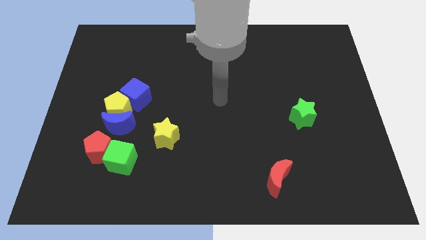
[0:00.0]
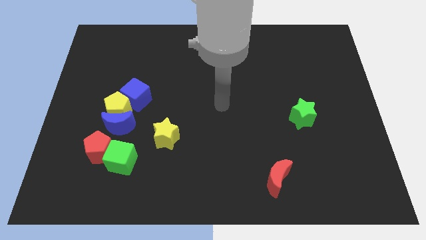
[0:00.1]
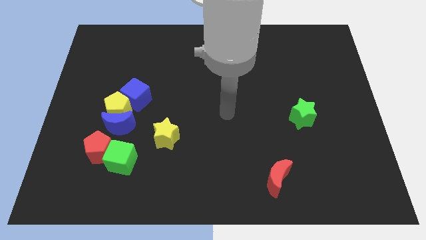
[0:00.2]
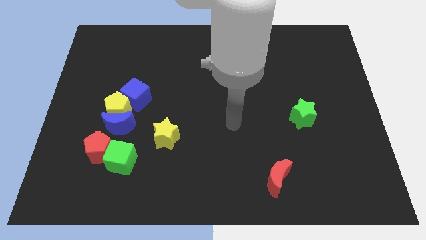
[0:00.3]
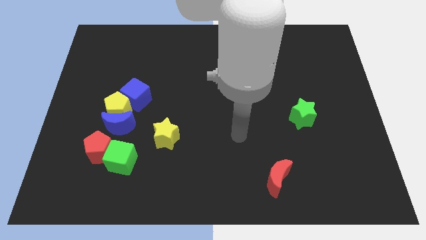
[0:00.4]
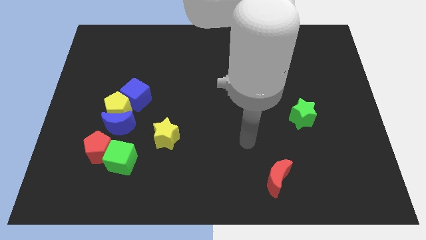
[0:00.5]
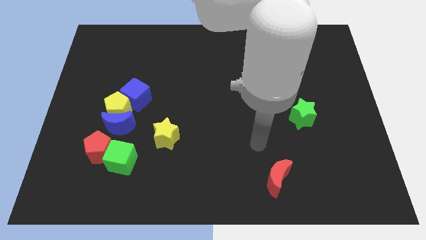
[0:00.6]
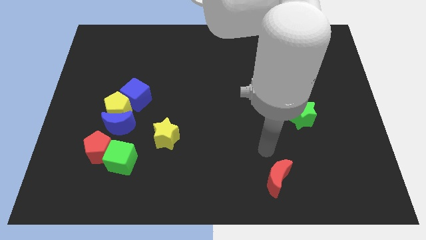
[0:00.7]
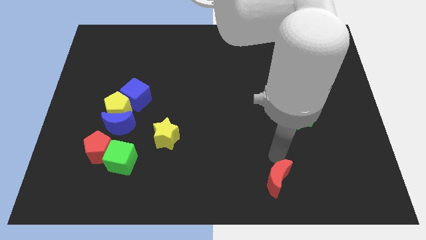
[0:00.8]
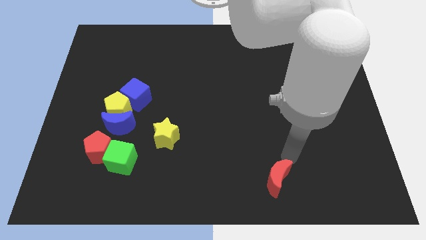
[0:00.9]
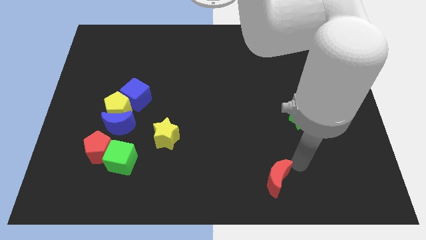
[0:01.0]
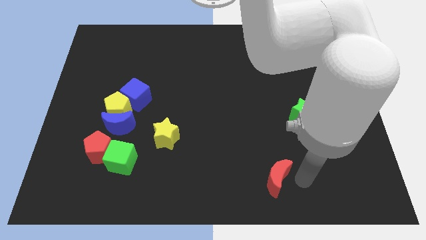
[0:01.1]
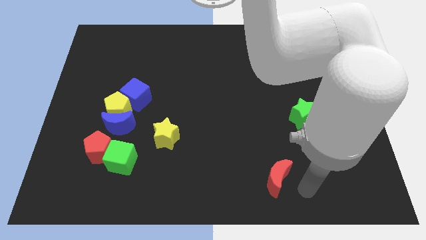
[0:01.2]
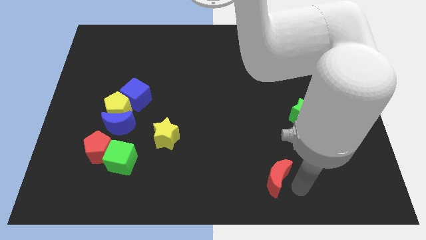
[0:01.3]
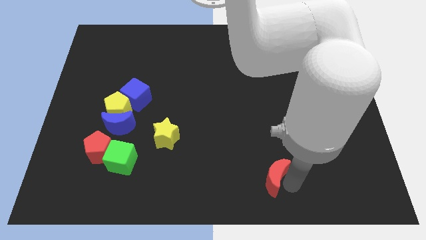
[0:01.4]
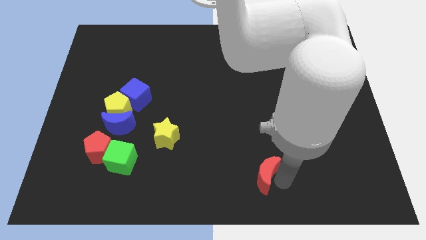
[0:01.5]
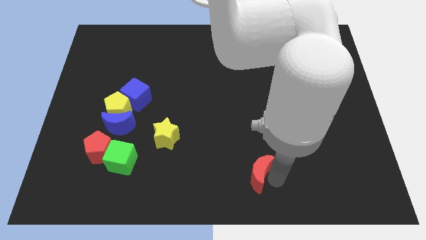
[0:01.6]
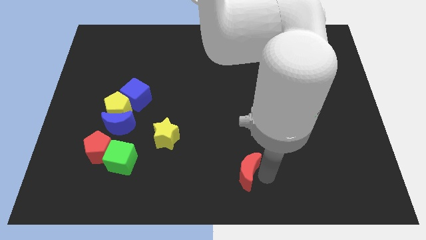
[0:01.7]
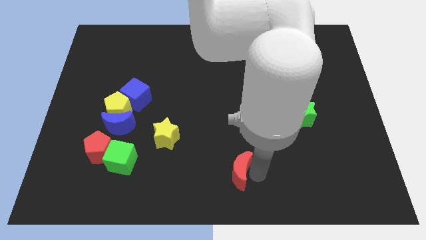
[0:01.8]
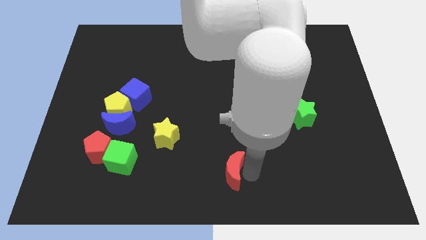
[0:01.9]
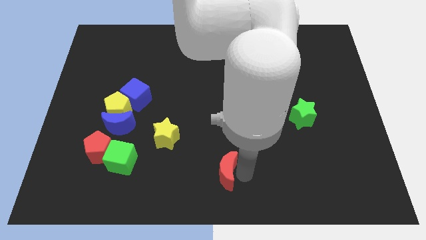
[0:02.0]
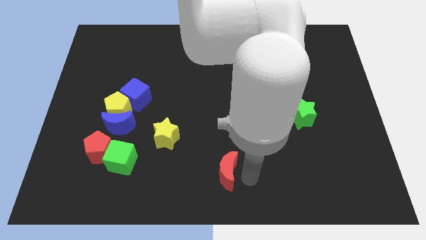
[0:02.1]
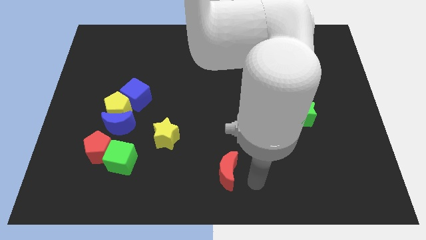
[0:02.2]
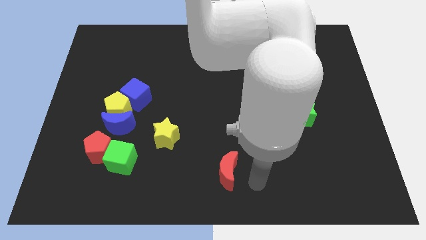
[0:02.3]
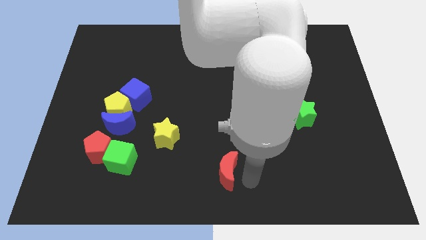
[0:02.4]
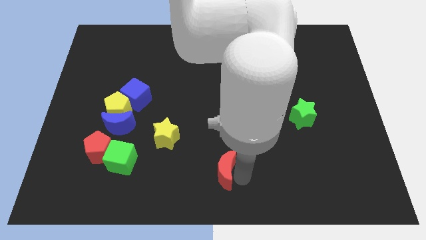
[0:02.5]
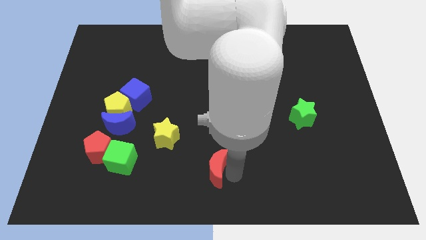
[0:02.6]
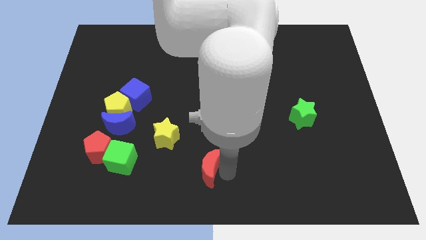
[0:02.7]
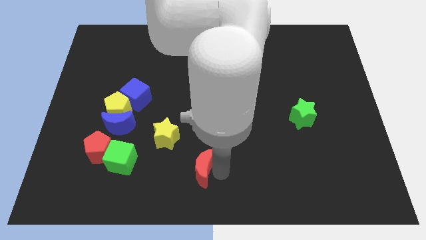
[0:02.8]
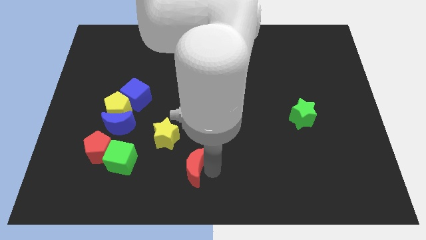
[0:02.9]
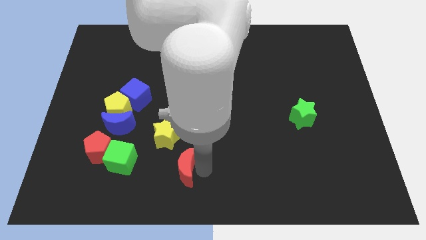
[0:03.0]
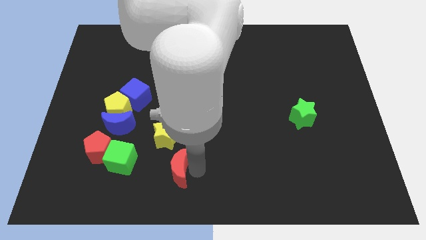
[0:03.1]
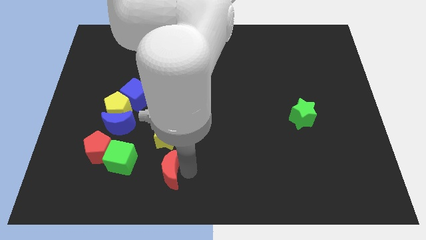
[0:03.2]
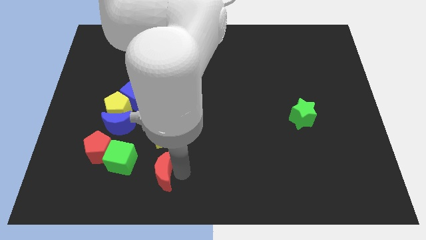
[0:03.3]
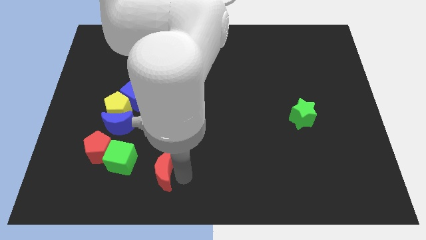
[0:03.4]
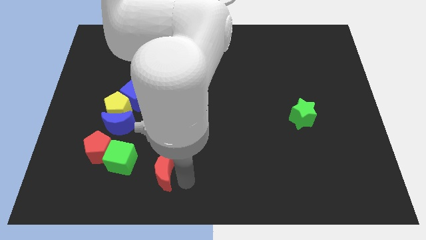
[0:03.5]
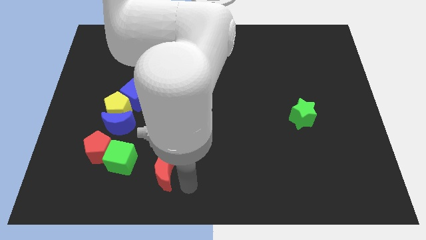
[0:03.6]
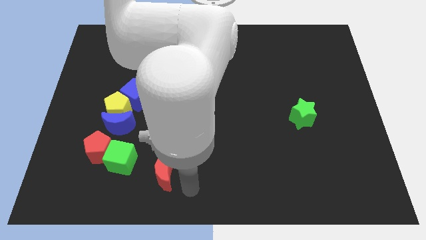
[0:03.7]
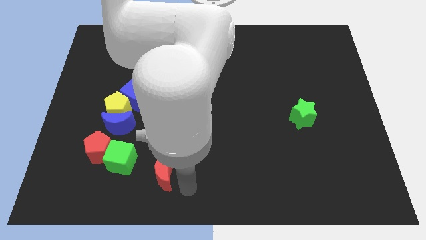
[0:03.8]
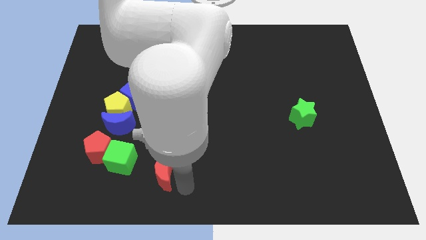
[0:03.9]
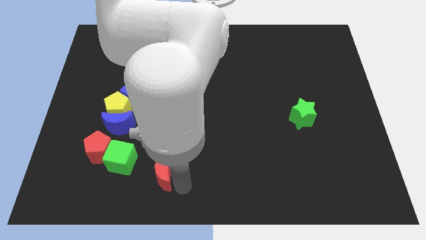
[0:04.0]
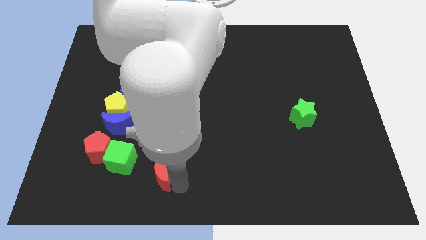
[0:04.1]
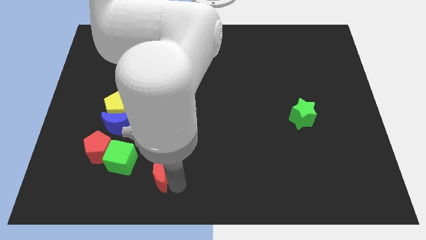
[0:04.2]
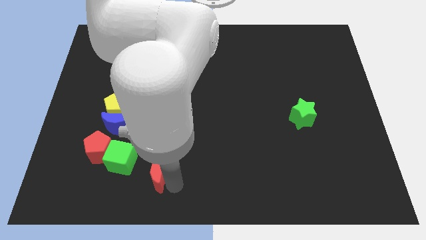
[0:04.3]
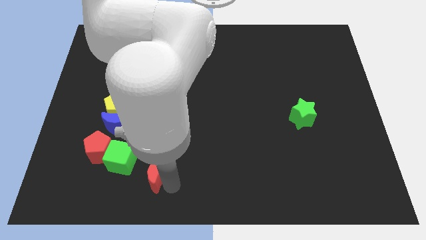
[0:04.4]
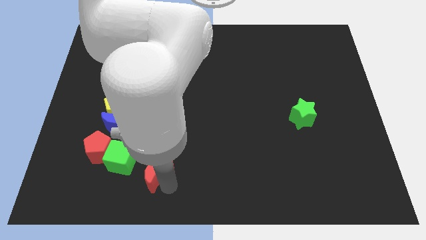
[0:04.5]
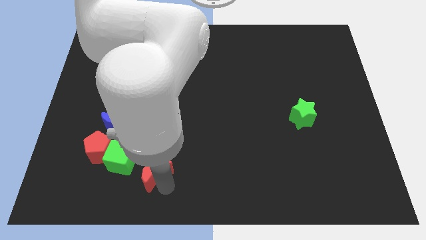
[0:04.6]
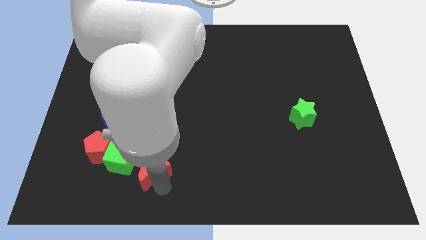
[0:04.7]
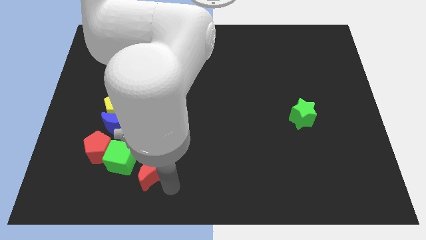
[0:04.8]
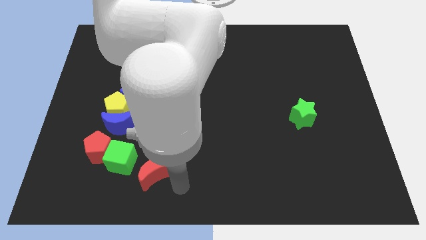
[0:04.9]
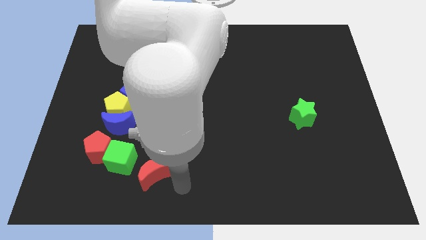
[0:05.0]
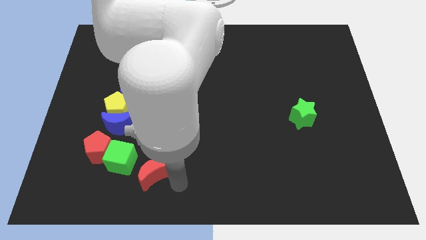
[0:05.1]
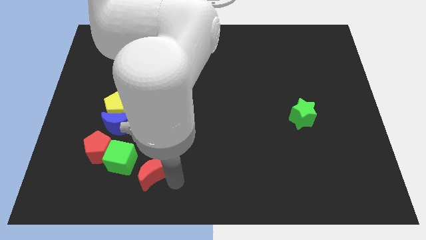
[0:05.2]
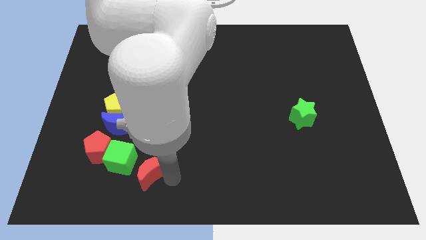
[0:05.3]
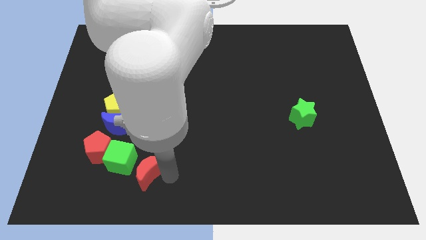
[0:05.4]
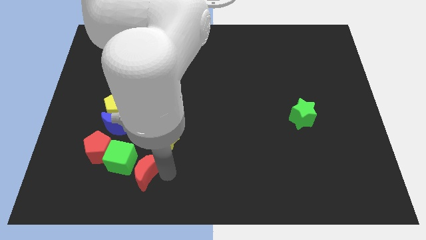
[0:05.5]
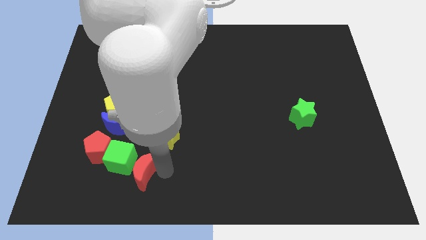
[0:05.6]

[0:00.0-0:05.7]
put the red moon close to the green cube

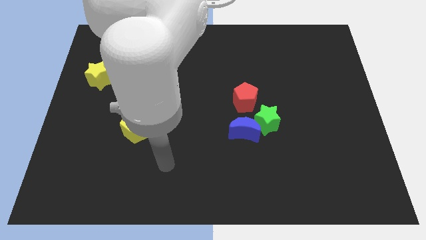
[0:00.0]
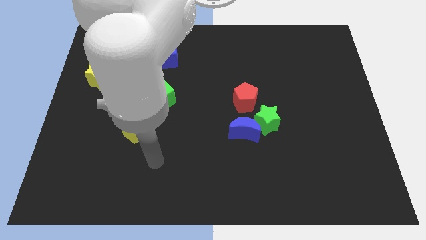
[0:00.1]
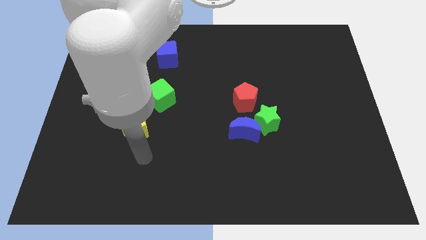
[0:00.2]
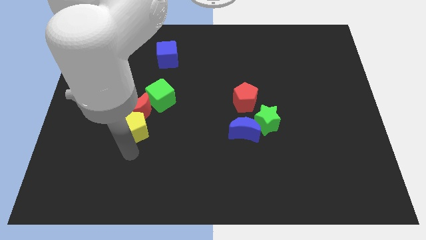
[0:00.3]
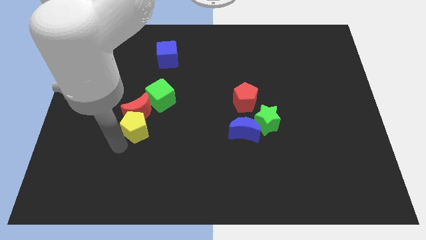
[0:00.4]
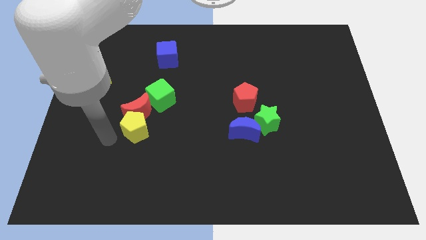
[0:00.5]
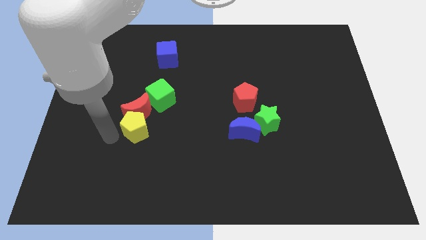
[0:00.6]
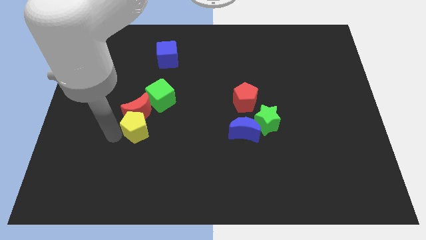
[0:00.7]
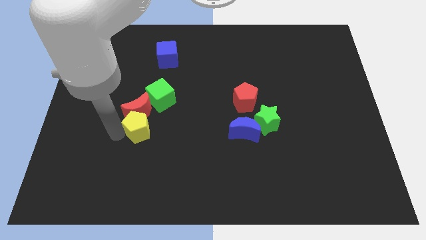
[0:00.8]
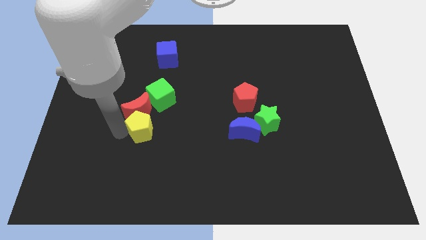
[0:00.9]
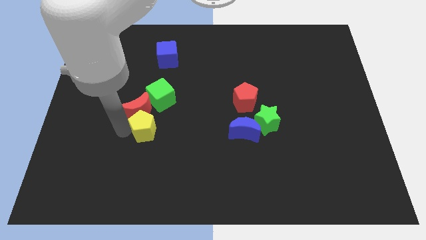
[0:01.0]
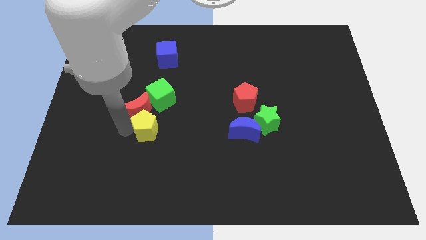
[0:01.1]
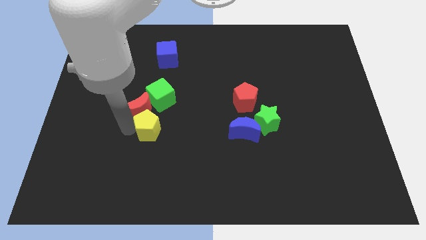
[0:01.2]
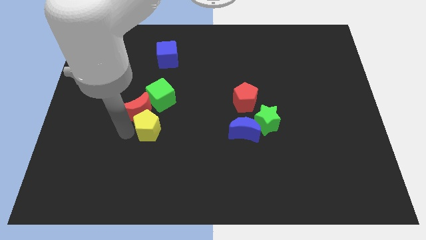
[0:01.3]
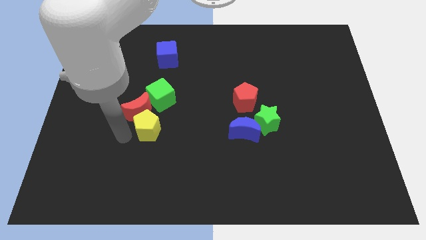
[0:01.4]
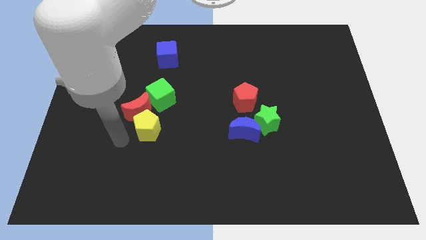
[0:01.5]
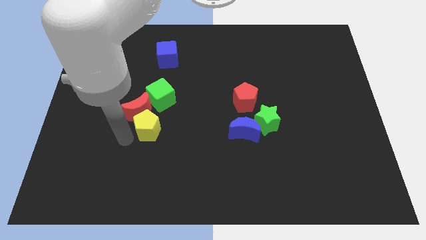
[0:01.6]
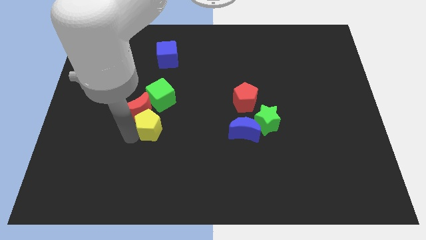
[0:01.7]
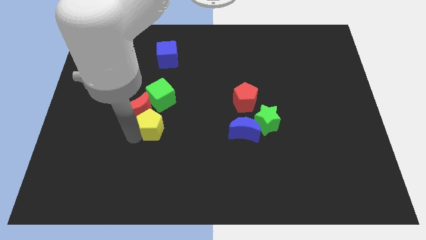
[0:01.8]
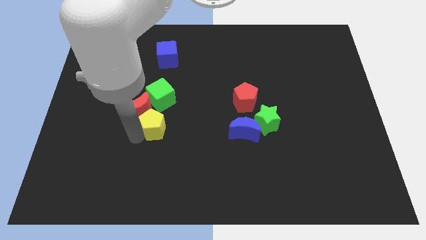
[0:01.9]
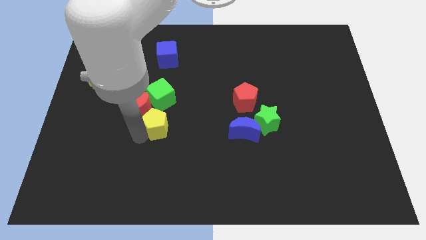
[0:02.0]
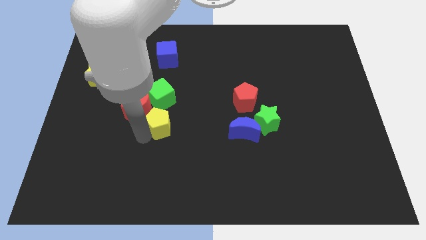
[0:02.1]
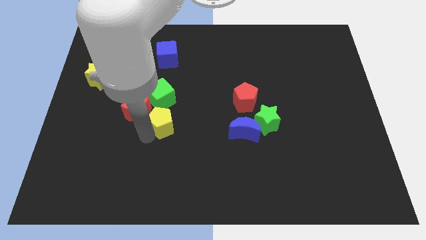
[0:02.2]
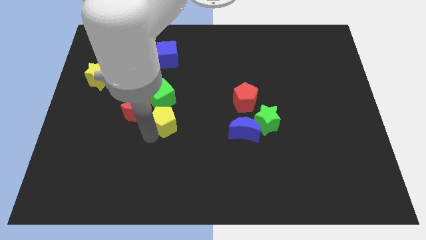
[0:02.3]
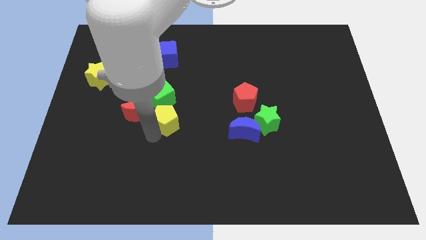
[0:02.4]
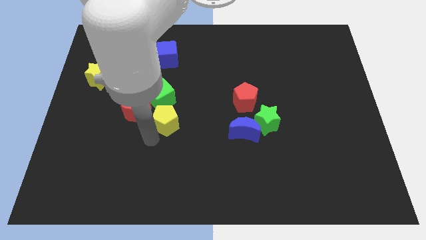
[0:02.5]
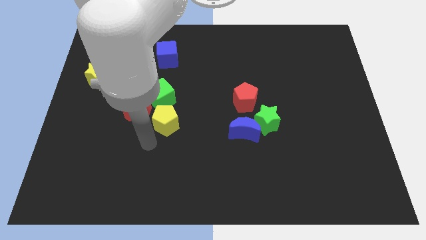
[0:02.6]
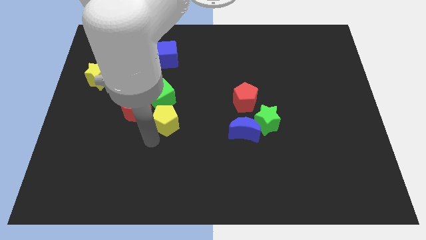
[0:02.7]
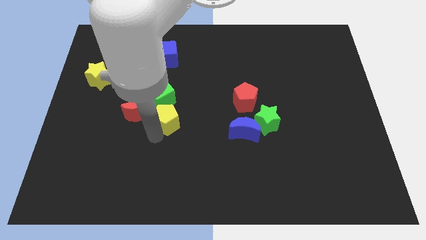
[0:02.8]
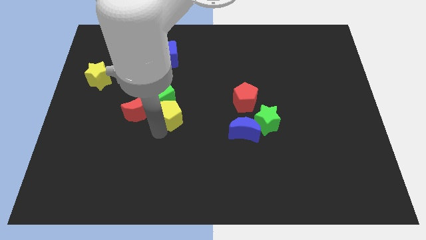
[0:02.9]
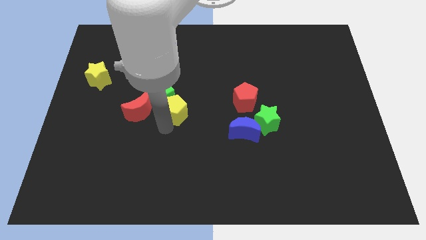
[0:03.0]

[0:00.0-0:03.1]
move the yellow pentagon close to the green cube
